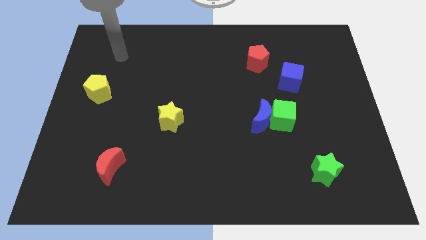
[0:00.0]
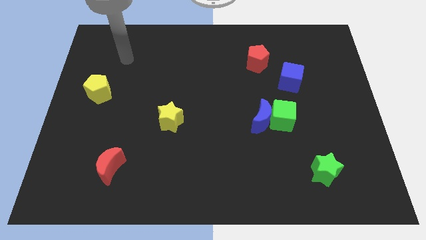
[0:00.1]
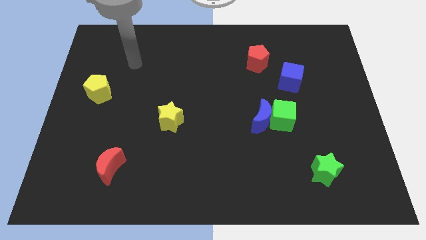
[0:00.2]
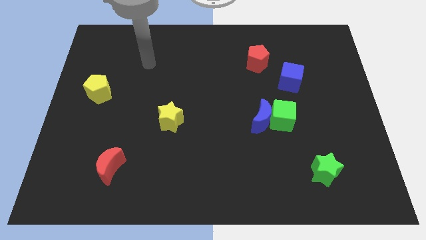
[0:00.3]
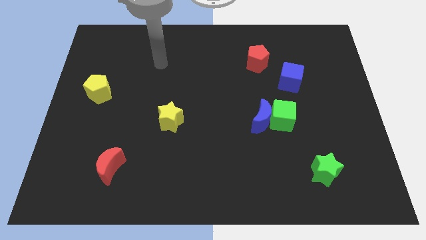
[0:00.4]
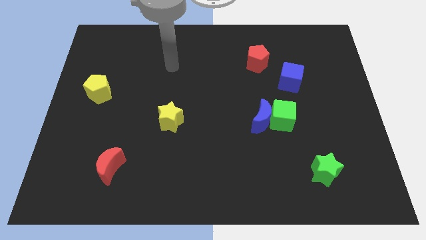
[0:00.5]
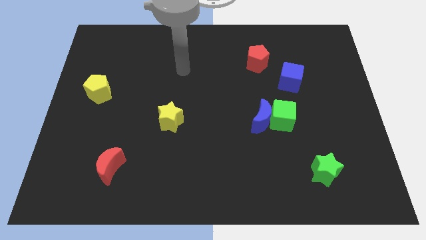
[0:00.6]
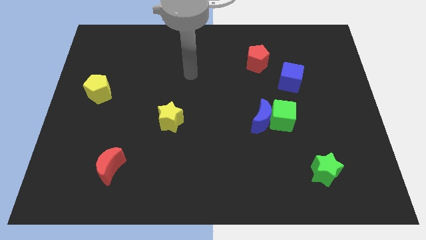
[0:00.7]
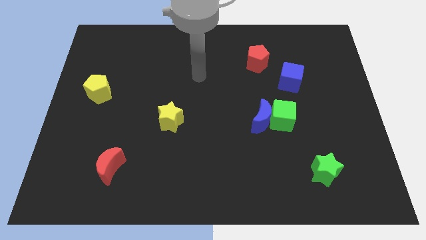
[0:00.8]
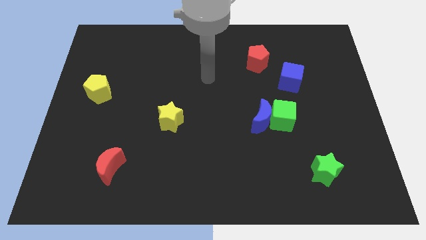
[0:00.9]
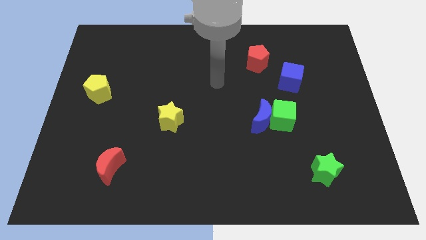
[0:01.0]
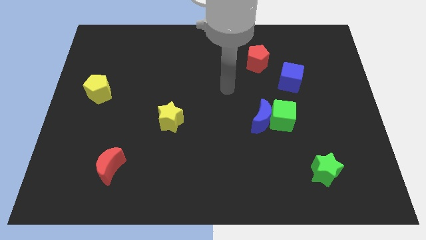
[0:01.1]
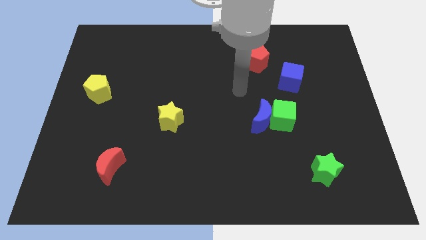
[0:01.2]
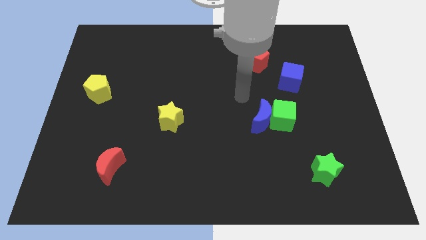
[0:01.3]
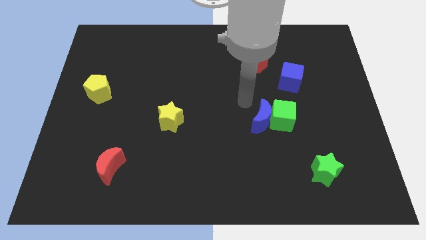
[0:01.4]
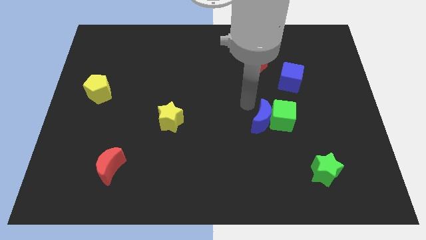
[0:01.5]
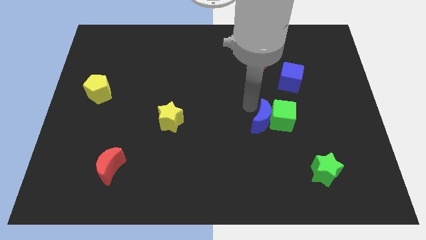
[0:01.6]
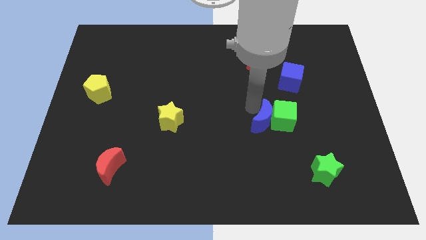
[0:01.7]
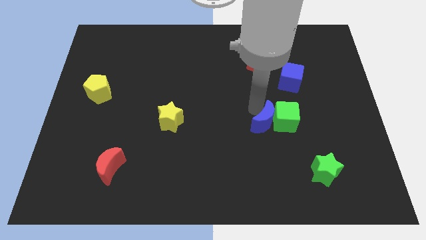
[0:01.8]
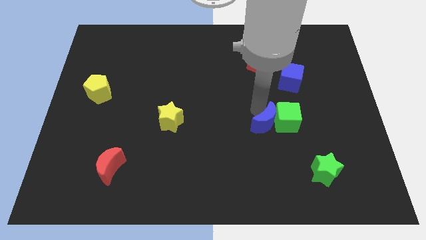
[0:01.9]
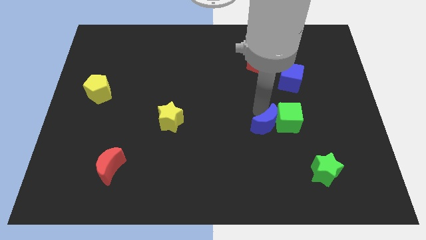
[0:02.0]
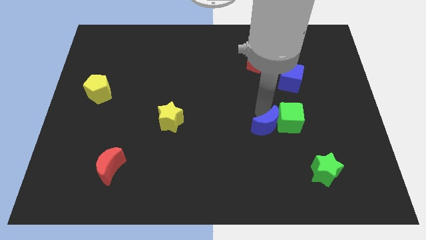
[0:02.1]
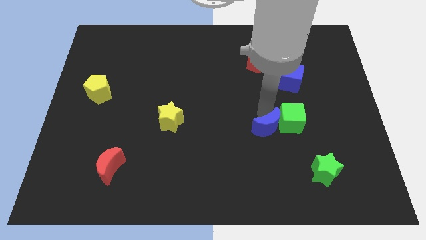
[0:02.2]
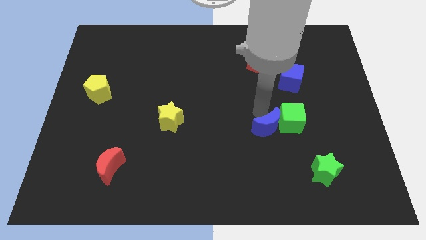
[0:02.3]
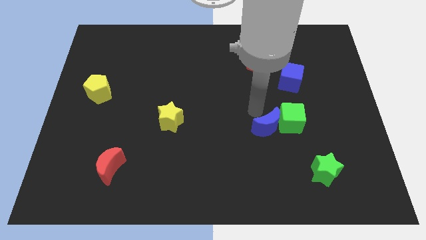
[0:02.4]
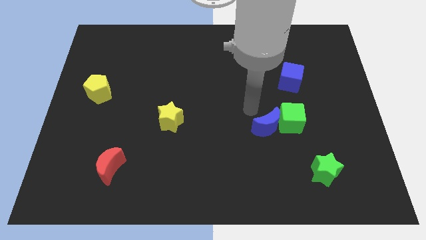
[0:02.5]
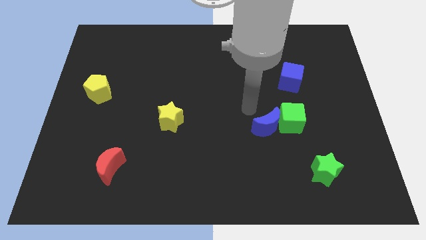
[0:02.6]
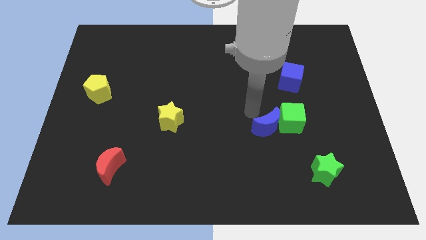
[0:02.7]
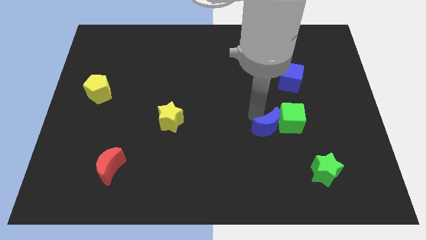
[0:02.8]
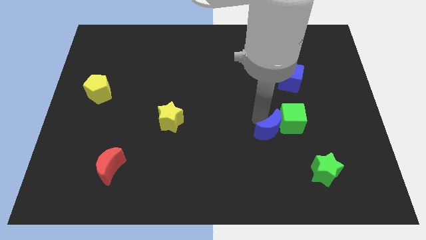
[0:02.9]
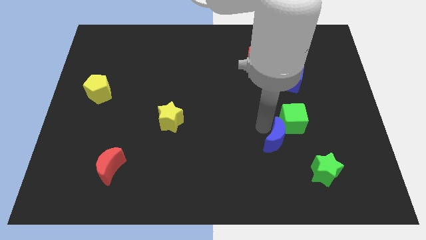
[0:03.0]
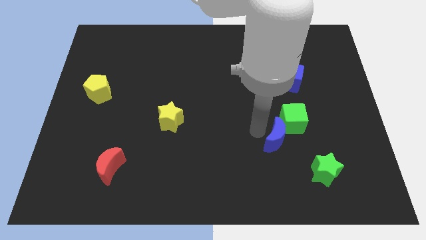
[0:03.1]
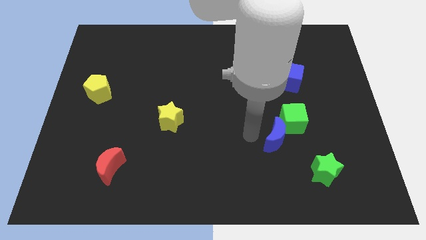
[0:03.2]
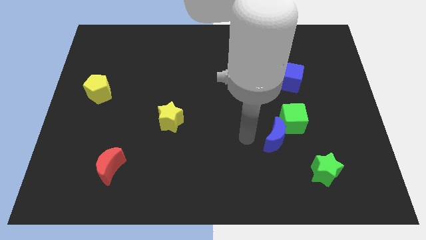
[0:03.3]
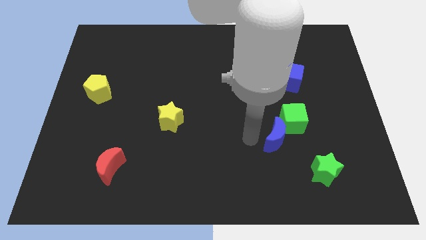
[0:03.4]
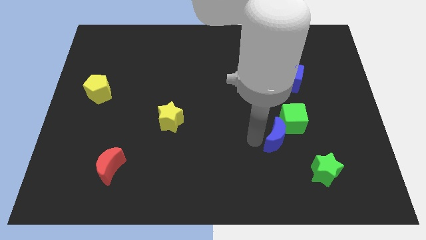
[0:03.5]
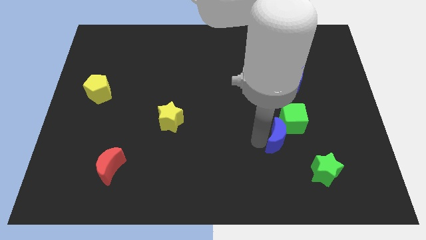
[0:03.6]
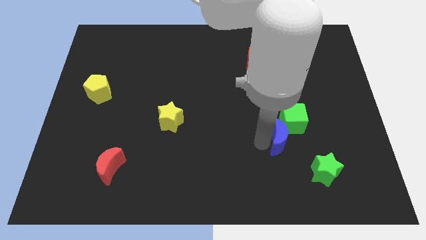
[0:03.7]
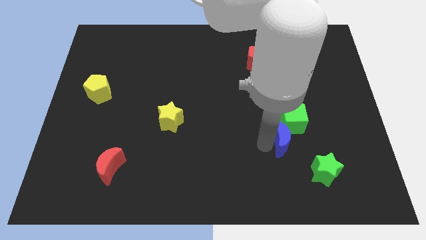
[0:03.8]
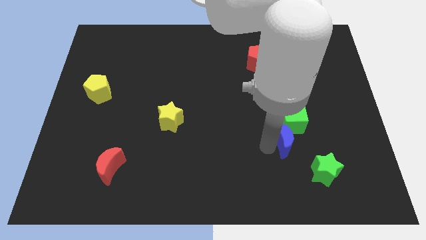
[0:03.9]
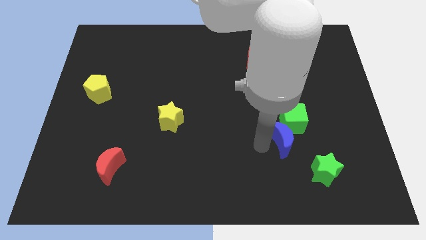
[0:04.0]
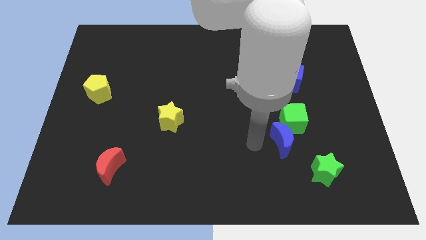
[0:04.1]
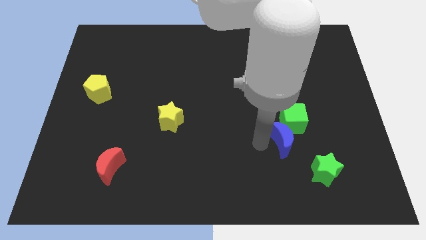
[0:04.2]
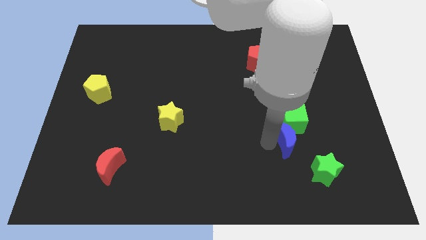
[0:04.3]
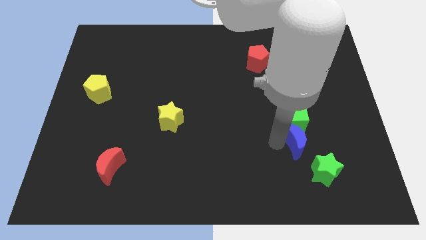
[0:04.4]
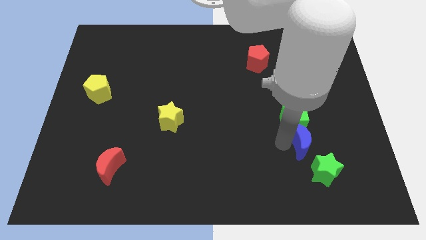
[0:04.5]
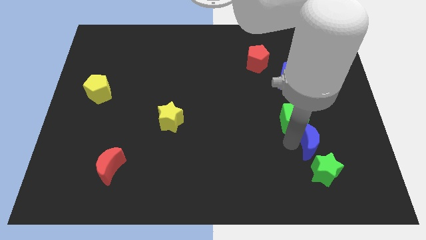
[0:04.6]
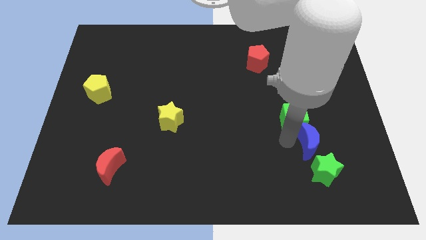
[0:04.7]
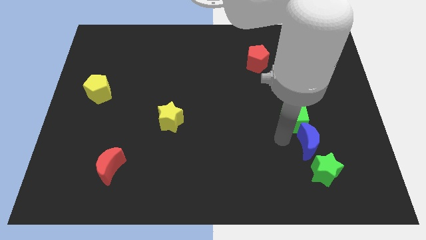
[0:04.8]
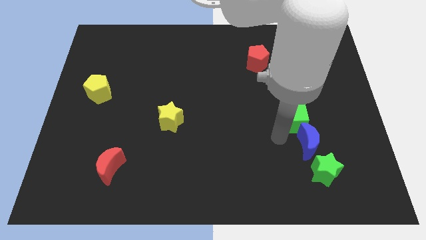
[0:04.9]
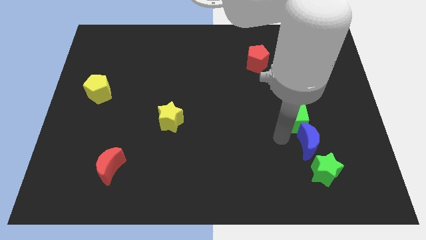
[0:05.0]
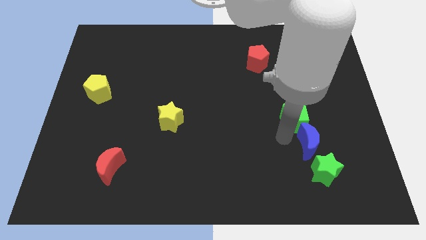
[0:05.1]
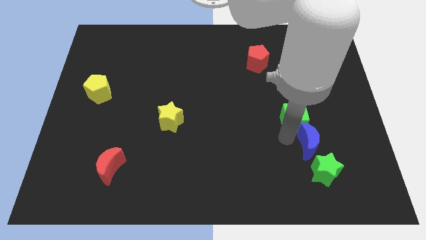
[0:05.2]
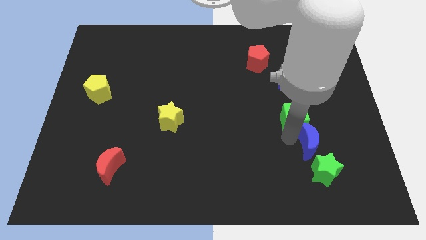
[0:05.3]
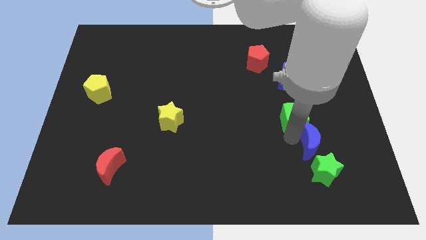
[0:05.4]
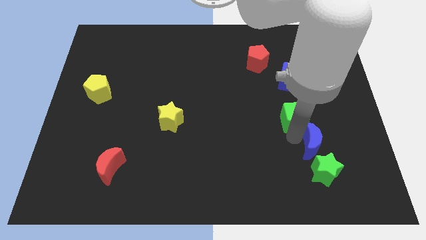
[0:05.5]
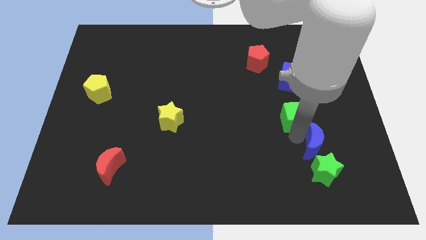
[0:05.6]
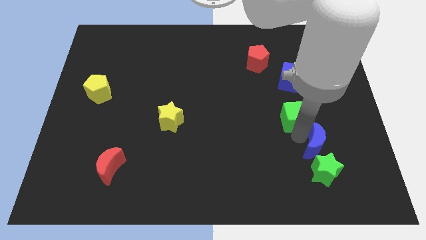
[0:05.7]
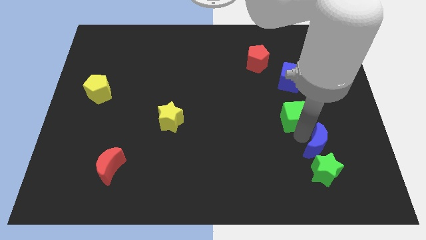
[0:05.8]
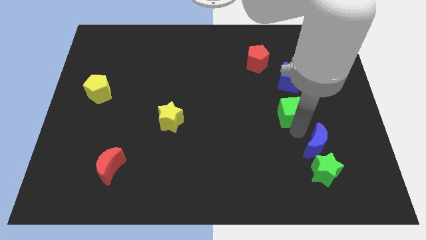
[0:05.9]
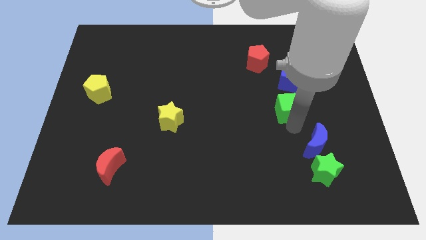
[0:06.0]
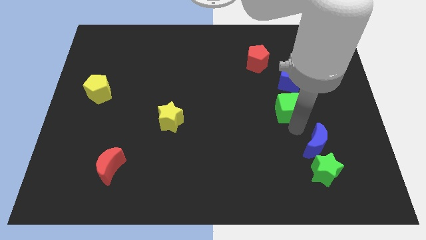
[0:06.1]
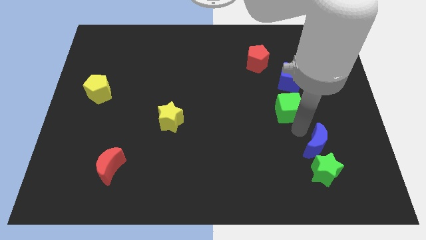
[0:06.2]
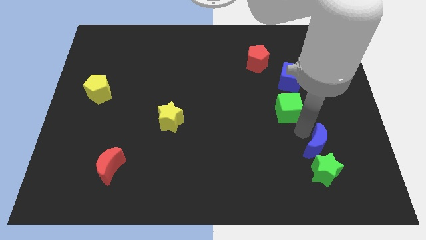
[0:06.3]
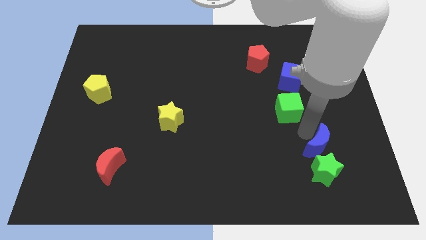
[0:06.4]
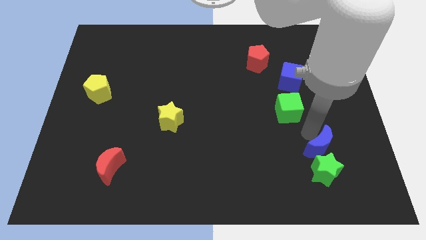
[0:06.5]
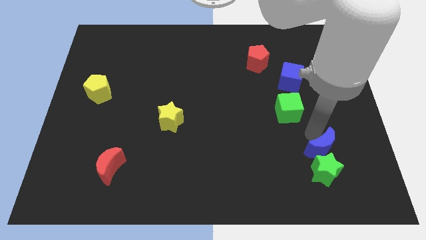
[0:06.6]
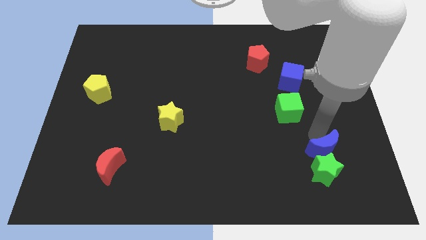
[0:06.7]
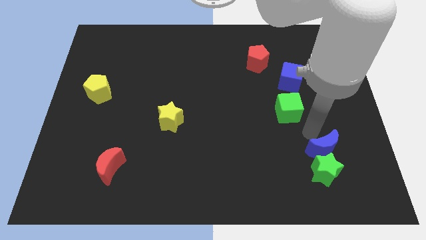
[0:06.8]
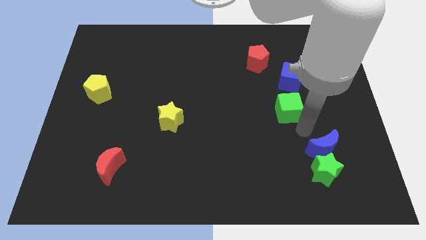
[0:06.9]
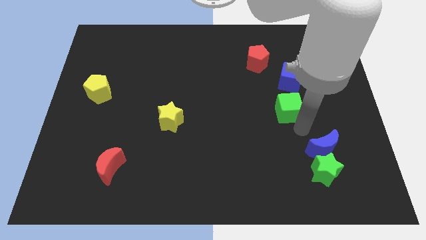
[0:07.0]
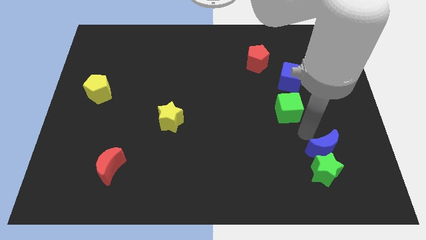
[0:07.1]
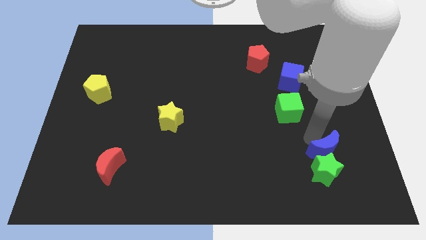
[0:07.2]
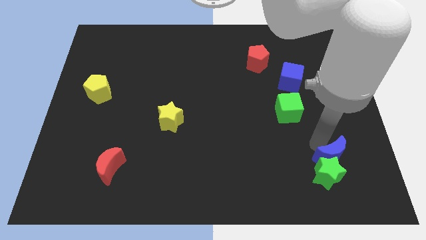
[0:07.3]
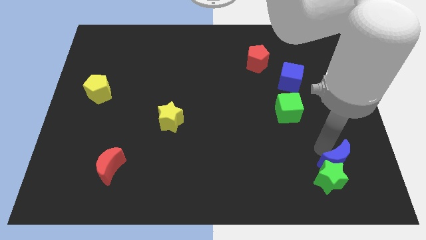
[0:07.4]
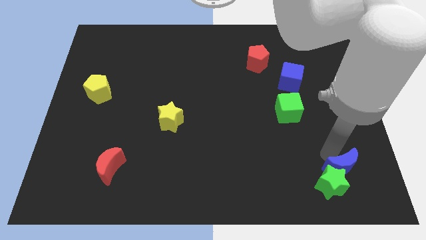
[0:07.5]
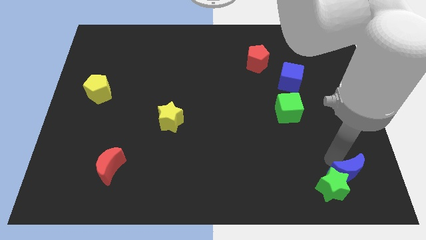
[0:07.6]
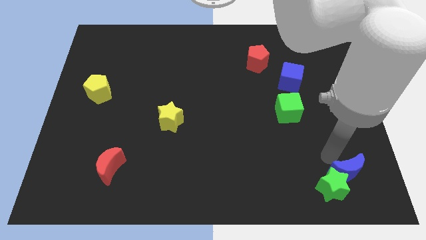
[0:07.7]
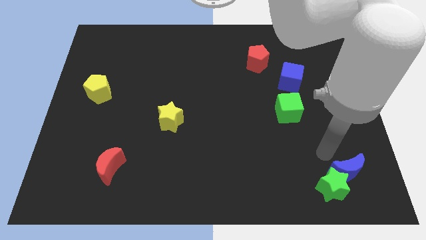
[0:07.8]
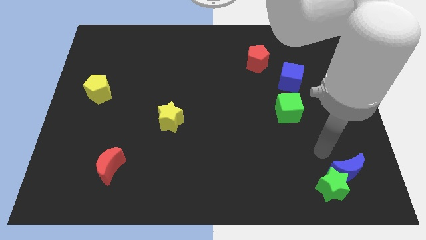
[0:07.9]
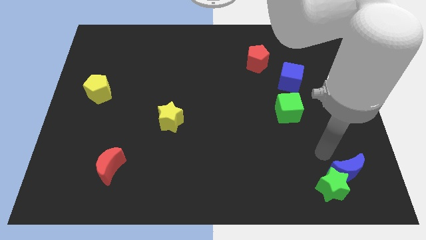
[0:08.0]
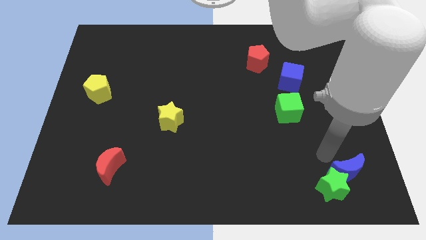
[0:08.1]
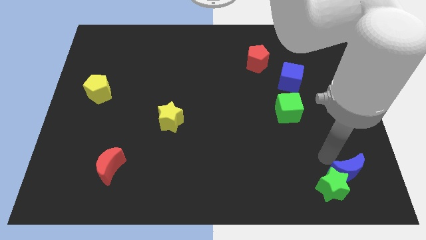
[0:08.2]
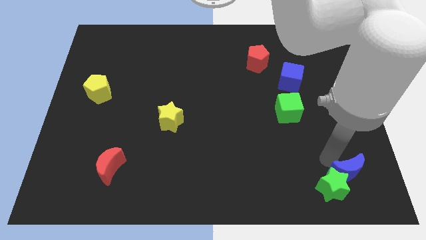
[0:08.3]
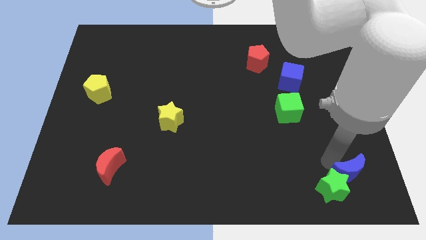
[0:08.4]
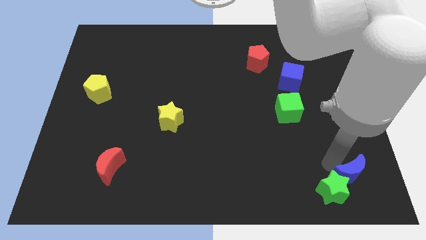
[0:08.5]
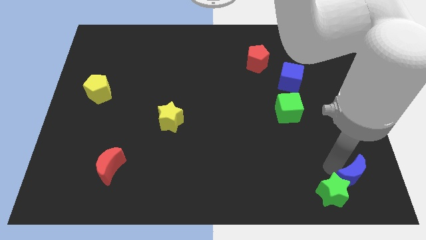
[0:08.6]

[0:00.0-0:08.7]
move the blue moon to the lower right corner
